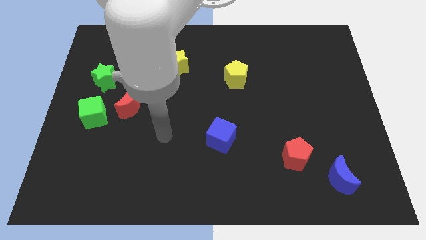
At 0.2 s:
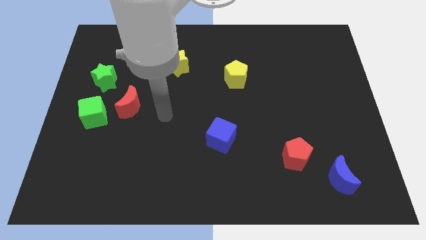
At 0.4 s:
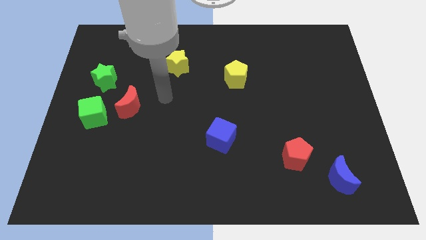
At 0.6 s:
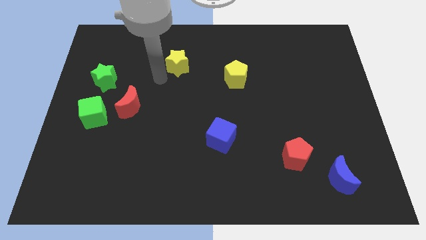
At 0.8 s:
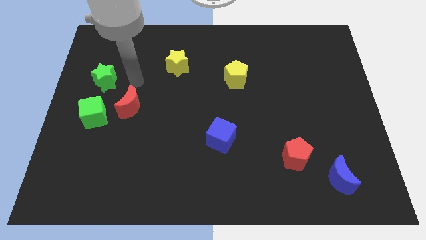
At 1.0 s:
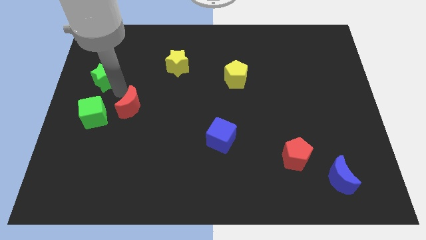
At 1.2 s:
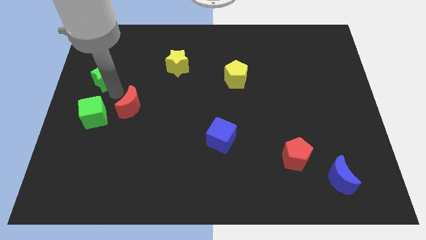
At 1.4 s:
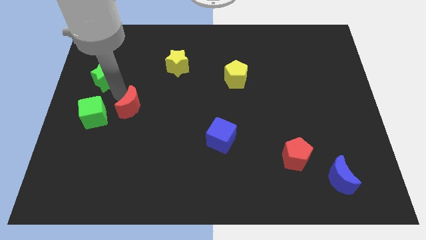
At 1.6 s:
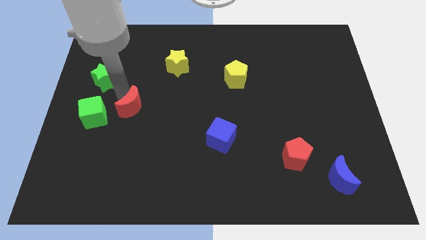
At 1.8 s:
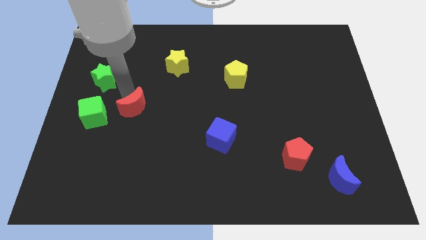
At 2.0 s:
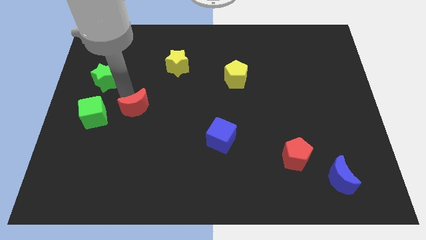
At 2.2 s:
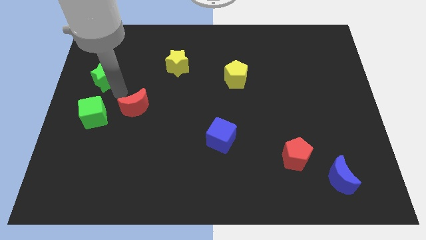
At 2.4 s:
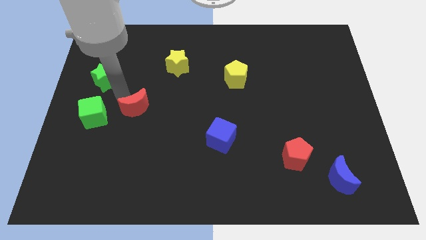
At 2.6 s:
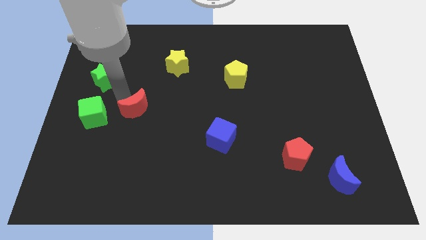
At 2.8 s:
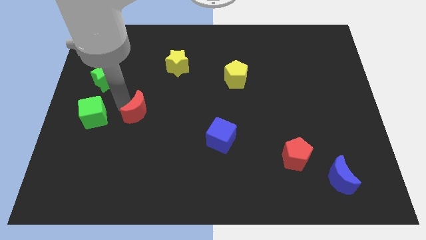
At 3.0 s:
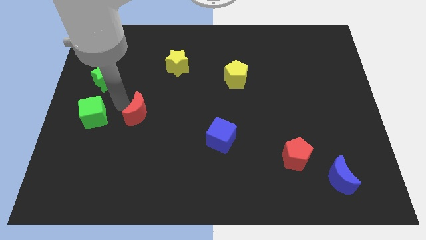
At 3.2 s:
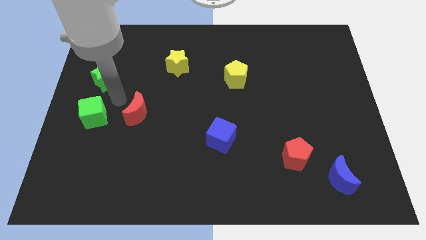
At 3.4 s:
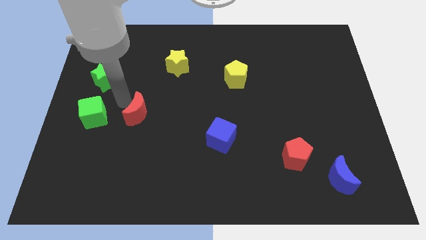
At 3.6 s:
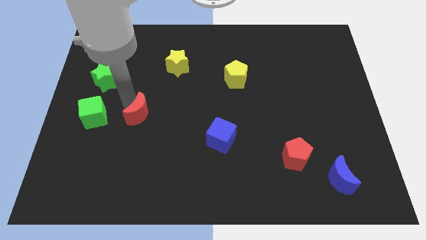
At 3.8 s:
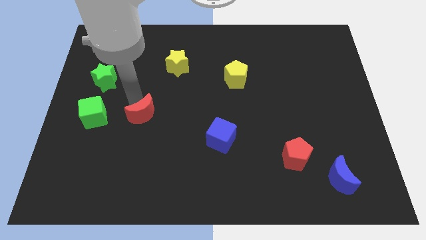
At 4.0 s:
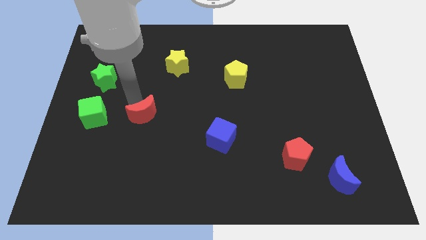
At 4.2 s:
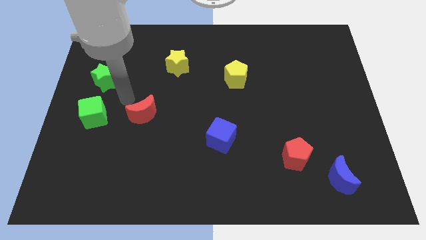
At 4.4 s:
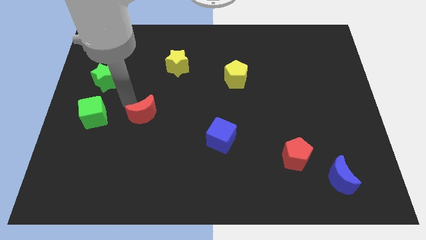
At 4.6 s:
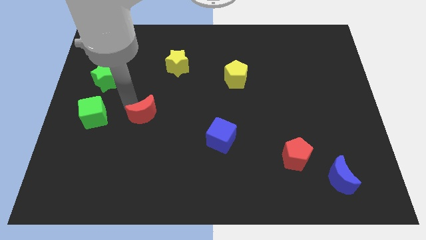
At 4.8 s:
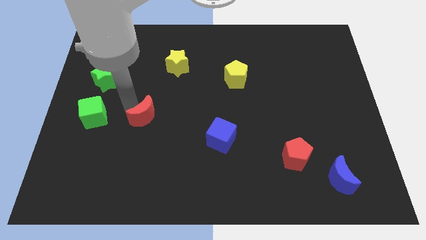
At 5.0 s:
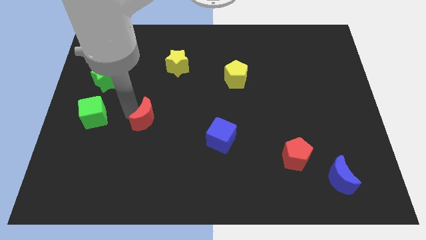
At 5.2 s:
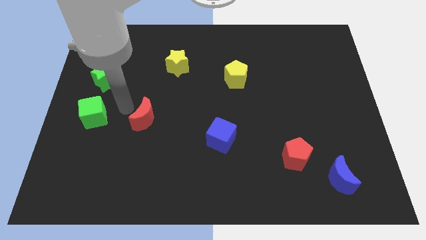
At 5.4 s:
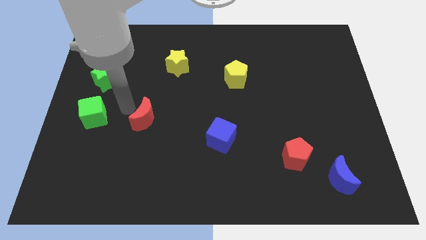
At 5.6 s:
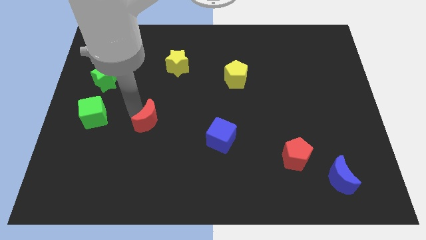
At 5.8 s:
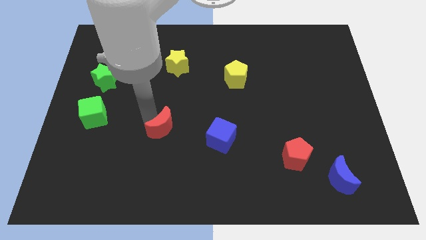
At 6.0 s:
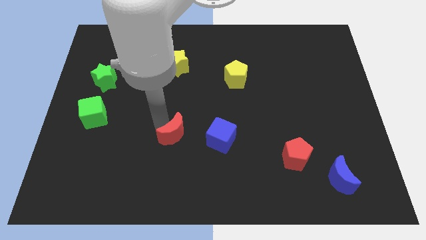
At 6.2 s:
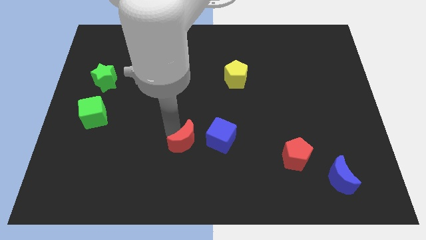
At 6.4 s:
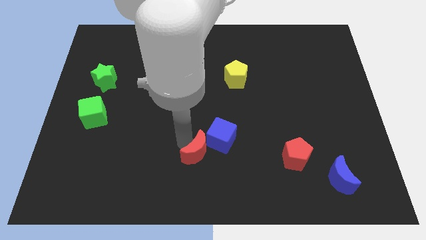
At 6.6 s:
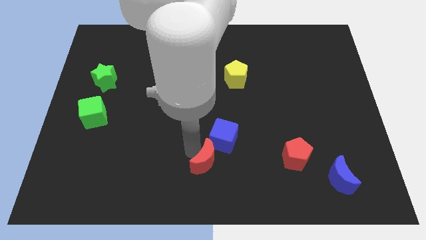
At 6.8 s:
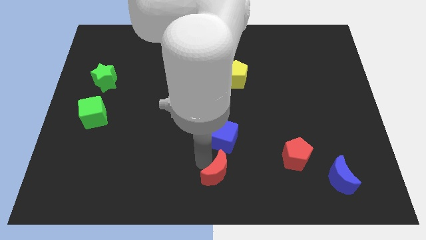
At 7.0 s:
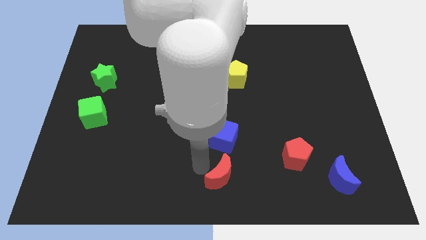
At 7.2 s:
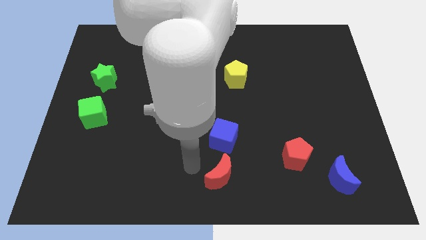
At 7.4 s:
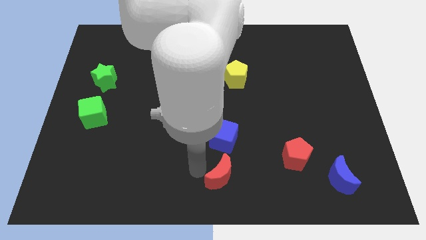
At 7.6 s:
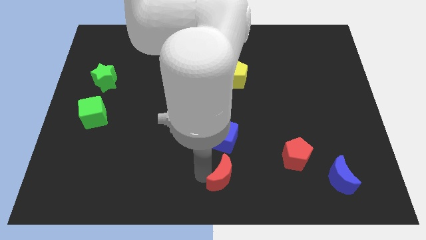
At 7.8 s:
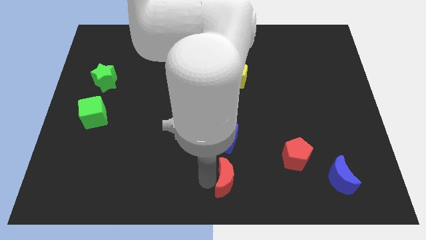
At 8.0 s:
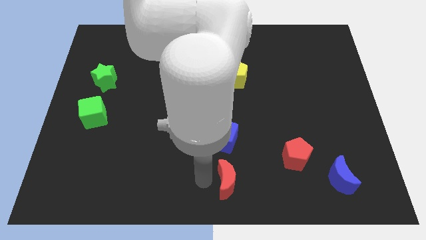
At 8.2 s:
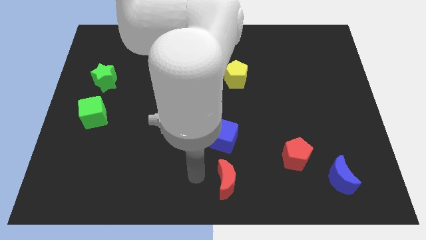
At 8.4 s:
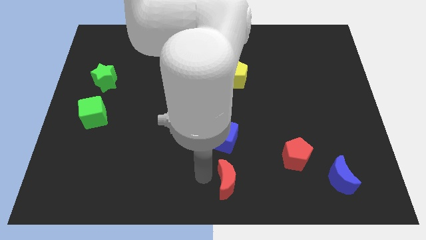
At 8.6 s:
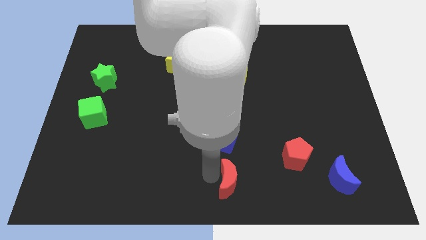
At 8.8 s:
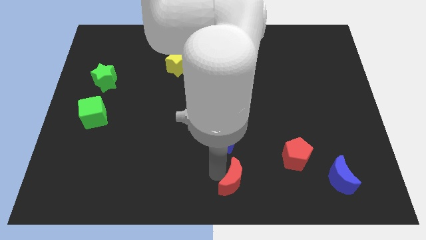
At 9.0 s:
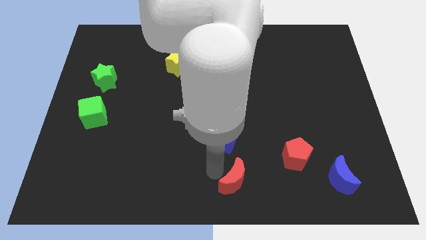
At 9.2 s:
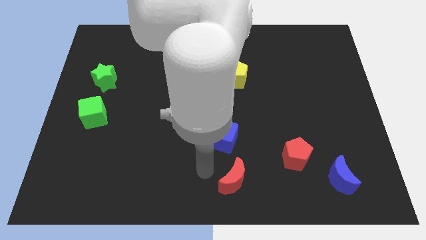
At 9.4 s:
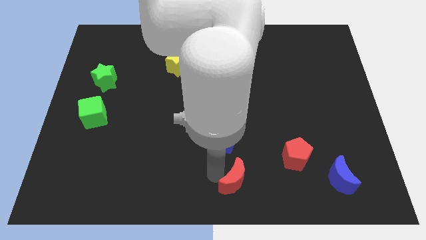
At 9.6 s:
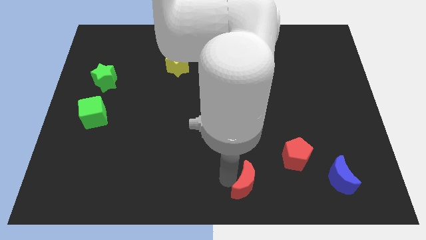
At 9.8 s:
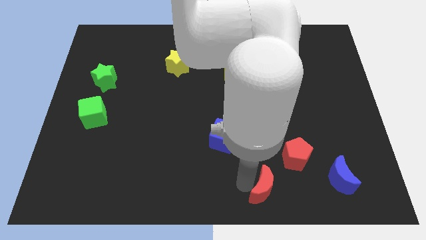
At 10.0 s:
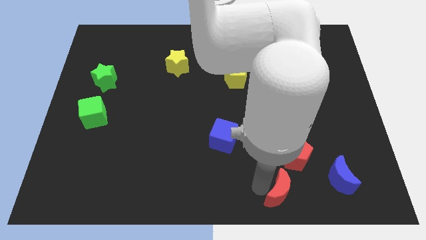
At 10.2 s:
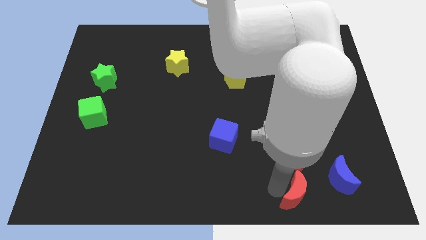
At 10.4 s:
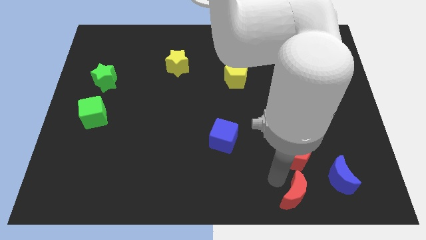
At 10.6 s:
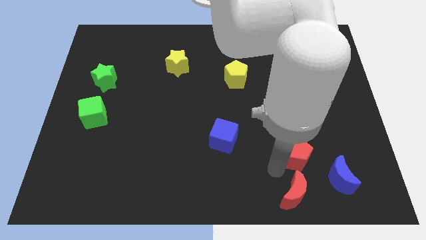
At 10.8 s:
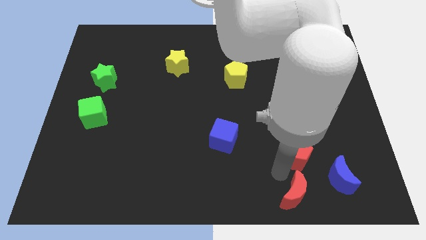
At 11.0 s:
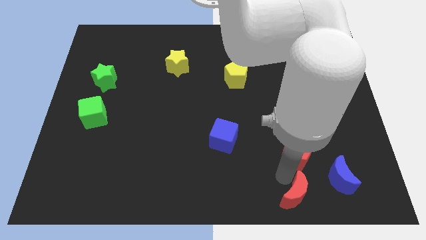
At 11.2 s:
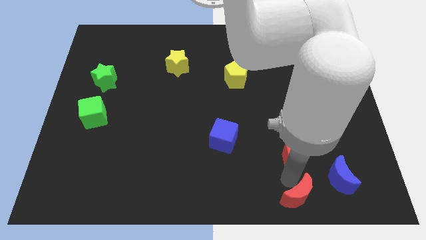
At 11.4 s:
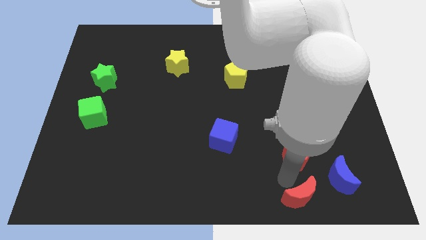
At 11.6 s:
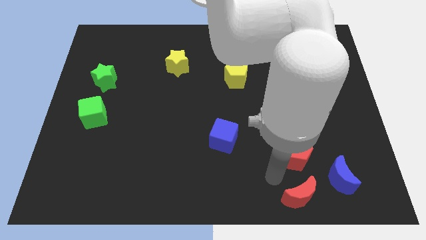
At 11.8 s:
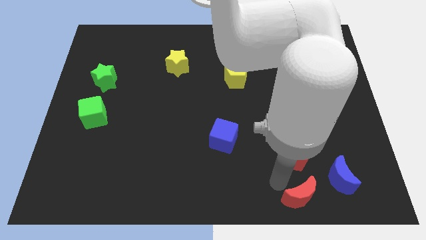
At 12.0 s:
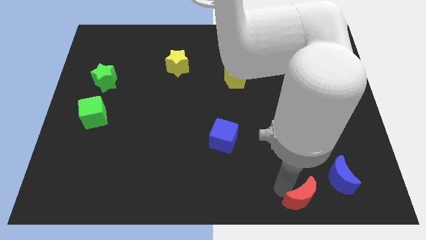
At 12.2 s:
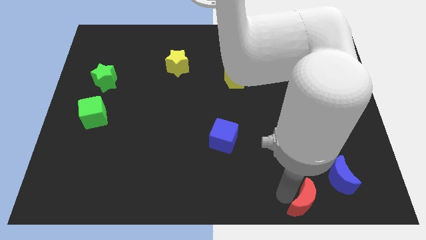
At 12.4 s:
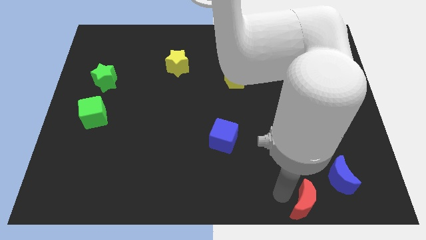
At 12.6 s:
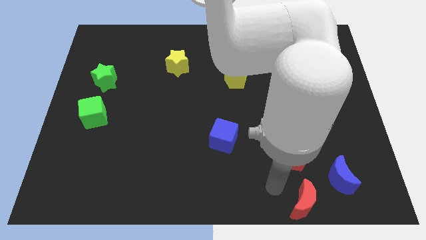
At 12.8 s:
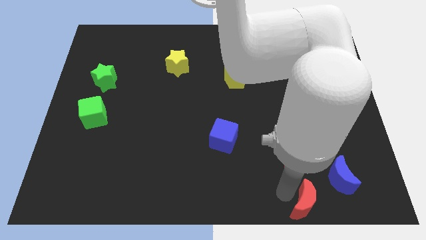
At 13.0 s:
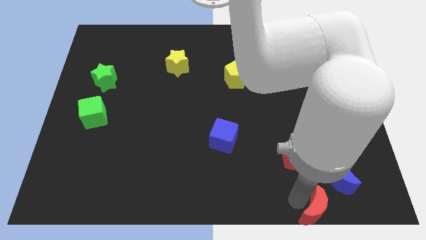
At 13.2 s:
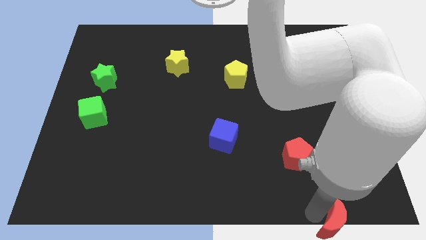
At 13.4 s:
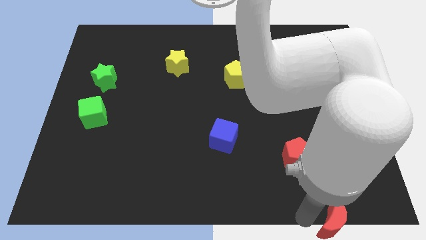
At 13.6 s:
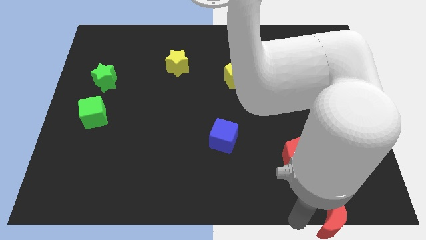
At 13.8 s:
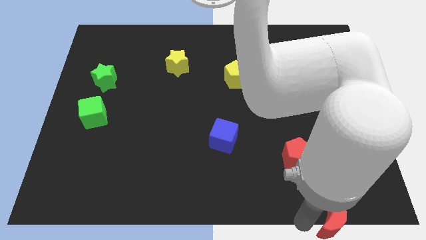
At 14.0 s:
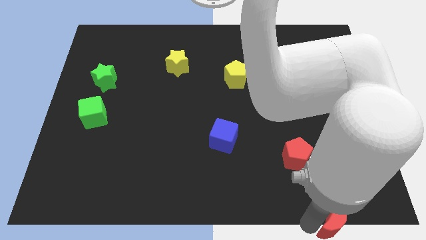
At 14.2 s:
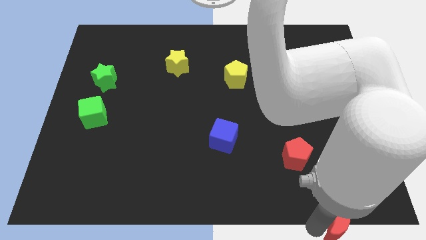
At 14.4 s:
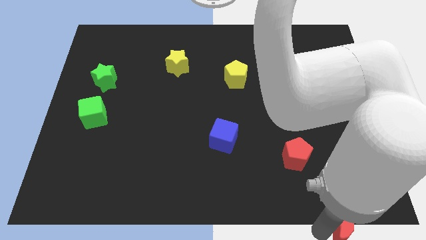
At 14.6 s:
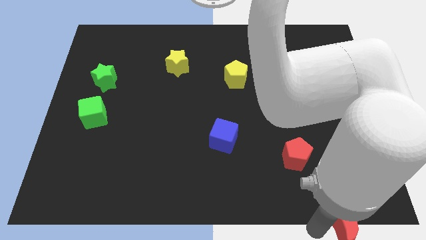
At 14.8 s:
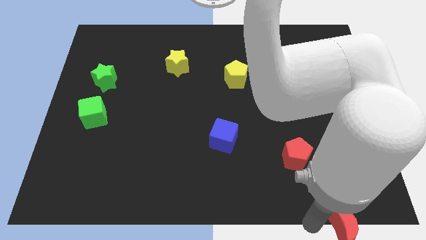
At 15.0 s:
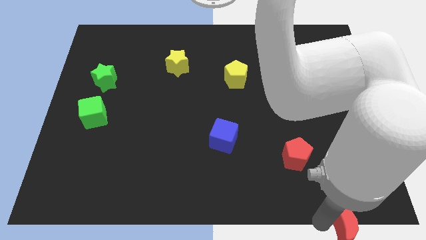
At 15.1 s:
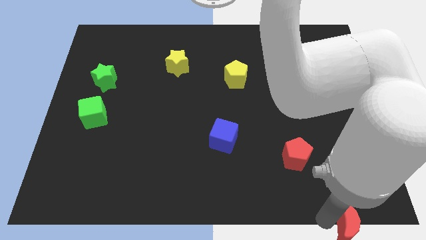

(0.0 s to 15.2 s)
slide the red moon to the bottom right corner
